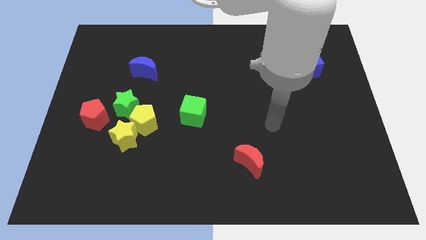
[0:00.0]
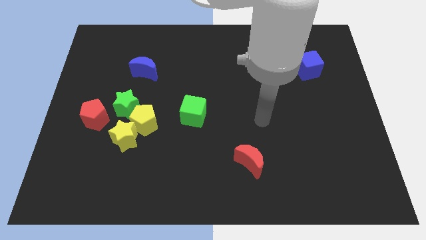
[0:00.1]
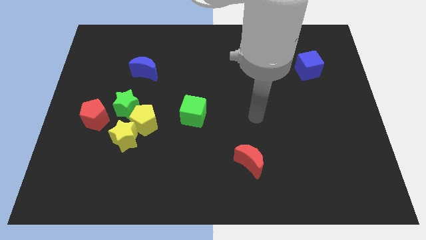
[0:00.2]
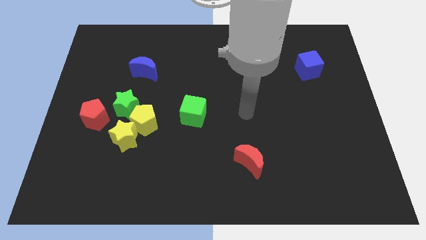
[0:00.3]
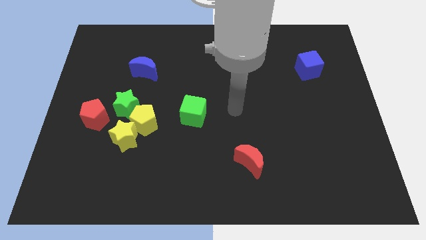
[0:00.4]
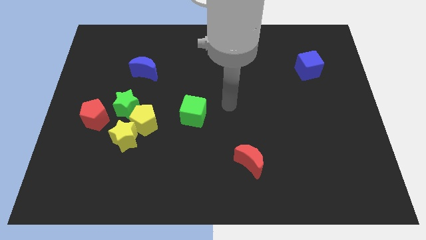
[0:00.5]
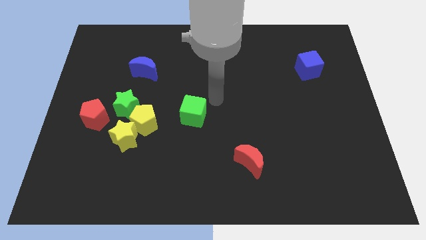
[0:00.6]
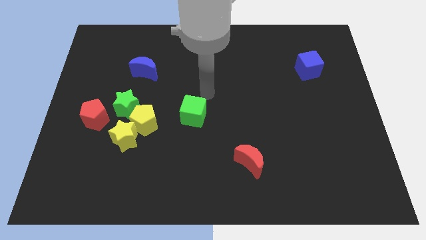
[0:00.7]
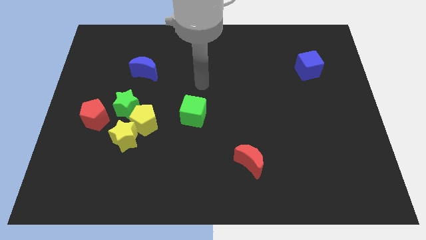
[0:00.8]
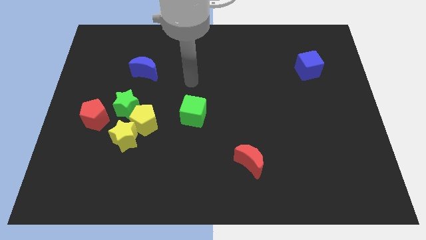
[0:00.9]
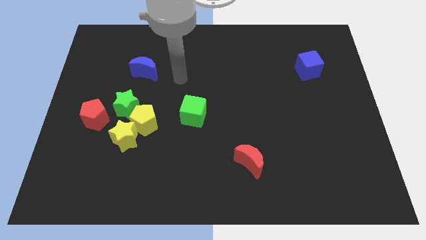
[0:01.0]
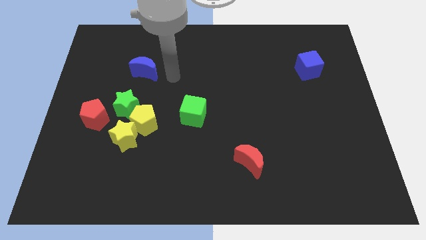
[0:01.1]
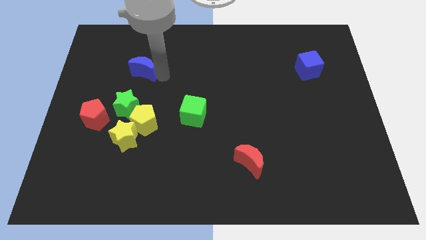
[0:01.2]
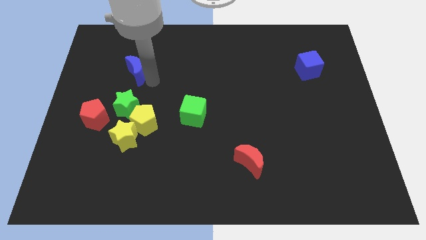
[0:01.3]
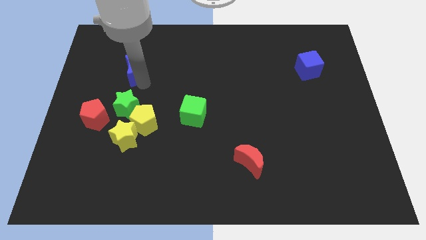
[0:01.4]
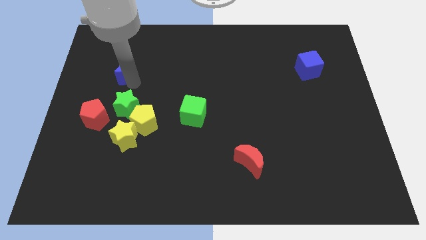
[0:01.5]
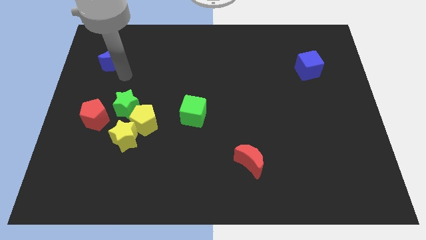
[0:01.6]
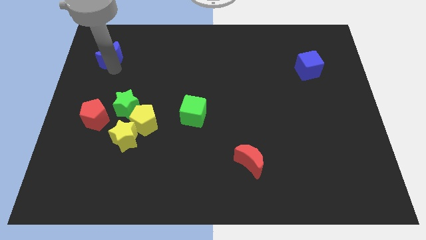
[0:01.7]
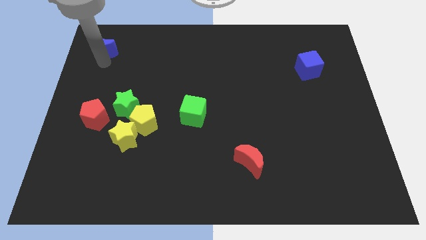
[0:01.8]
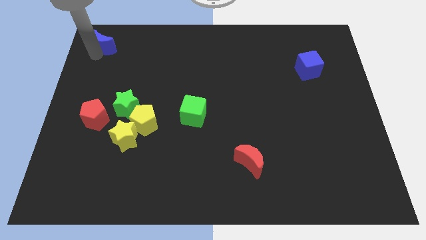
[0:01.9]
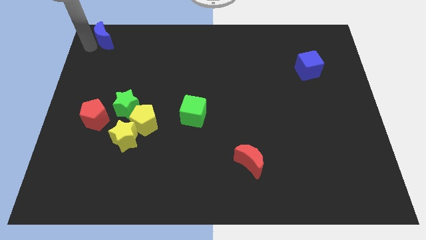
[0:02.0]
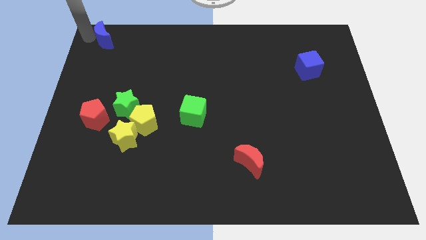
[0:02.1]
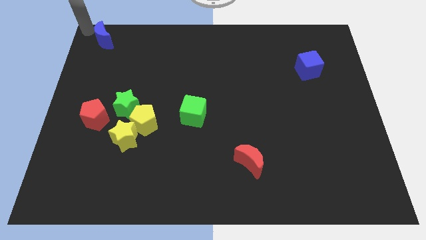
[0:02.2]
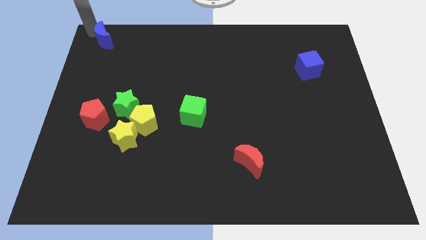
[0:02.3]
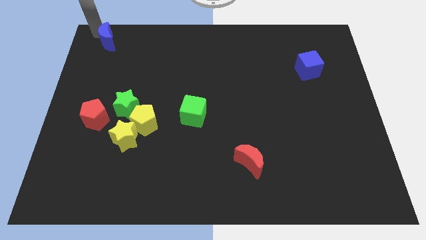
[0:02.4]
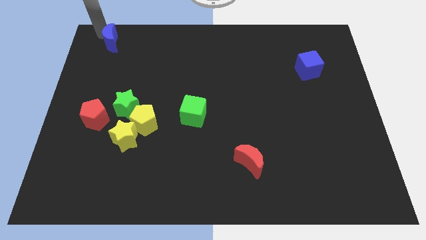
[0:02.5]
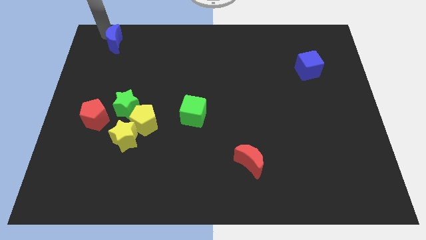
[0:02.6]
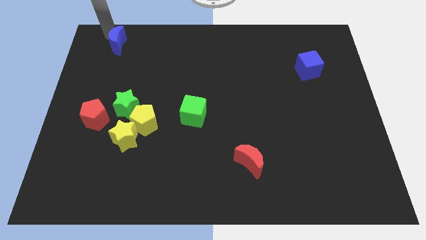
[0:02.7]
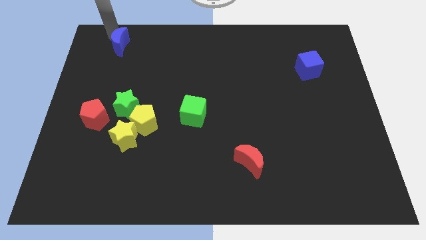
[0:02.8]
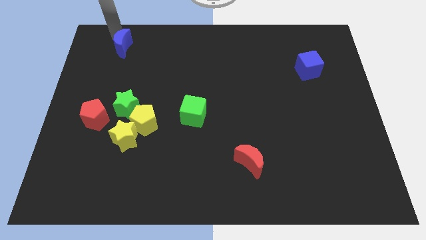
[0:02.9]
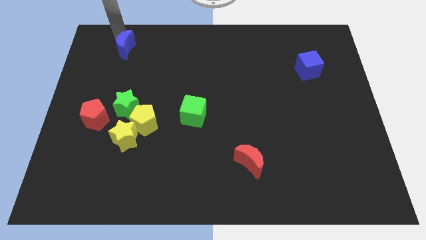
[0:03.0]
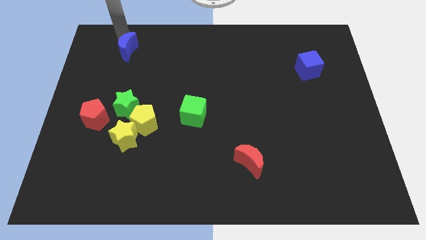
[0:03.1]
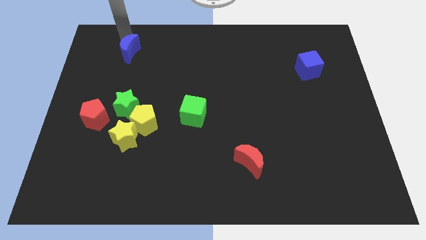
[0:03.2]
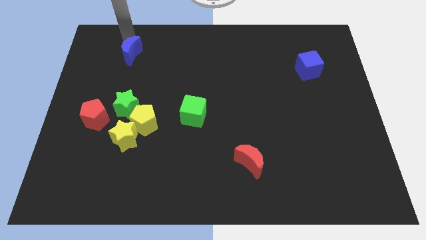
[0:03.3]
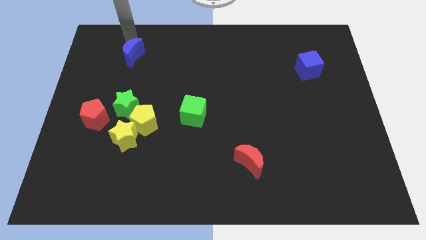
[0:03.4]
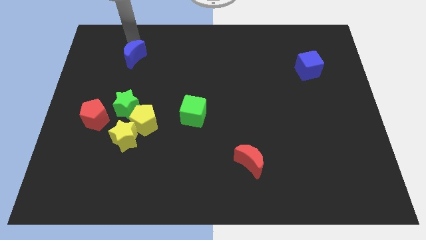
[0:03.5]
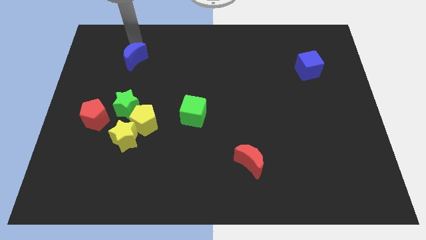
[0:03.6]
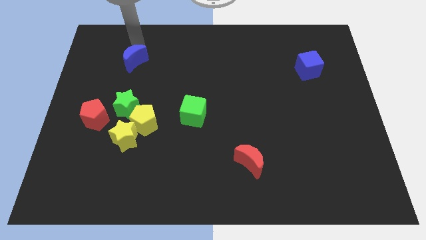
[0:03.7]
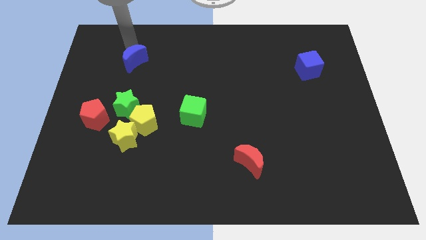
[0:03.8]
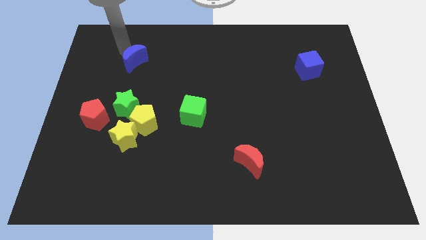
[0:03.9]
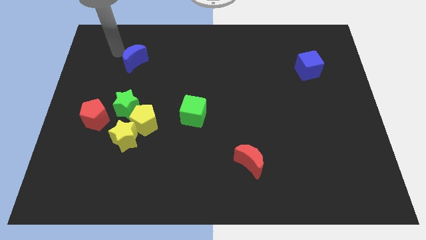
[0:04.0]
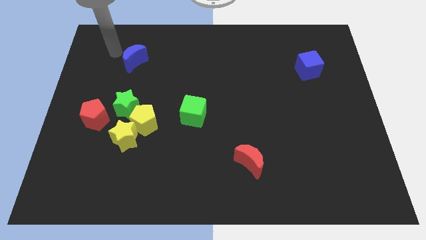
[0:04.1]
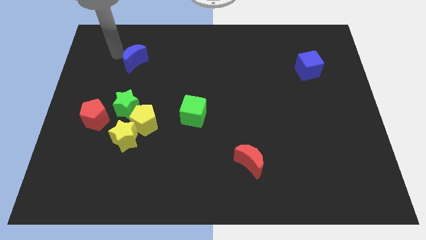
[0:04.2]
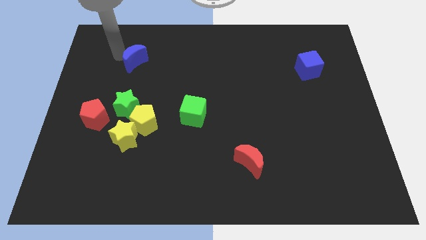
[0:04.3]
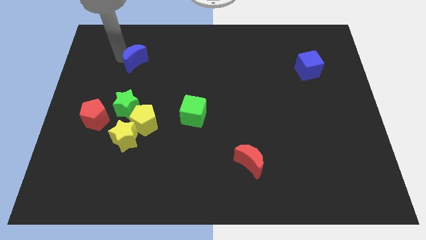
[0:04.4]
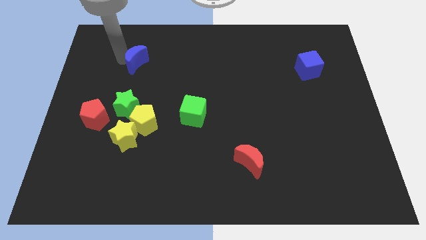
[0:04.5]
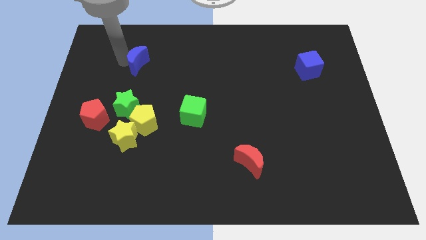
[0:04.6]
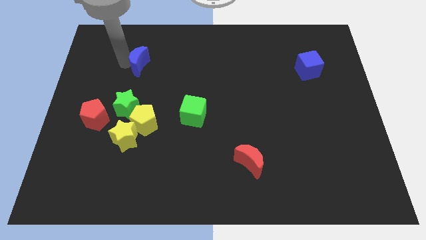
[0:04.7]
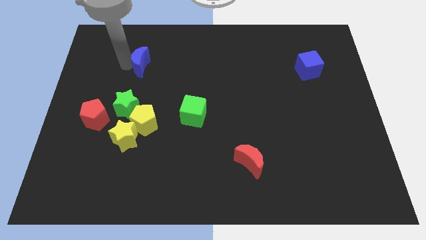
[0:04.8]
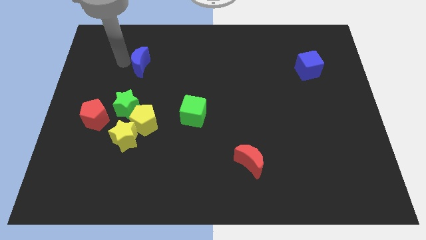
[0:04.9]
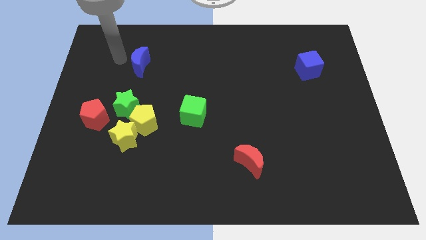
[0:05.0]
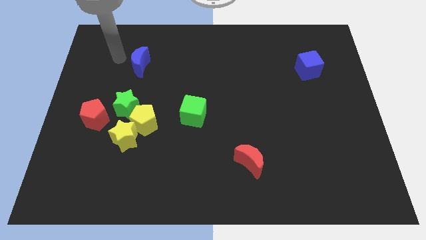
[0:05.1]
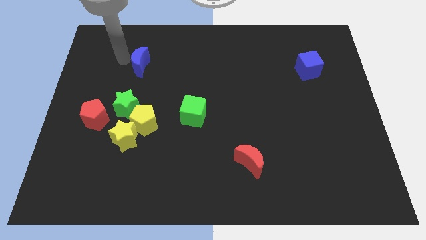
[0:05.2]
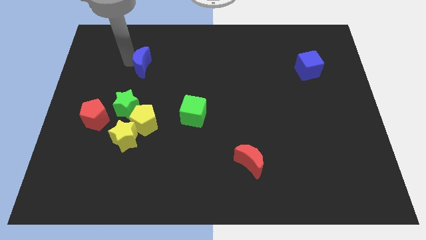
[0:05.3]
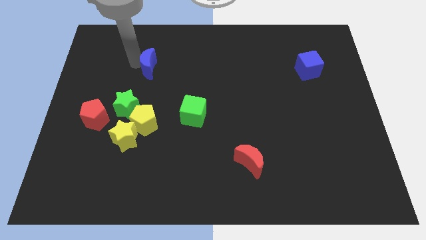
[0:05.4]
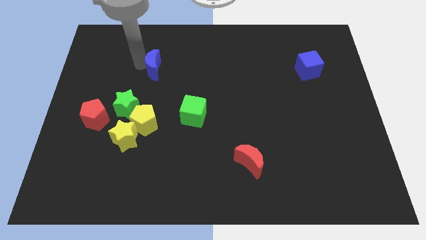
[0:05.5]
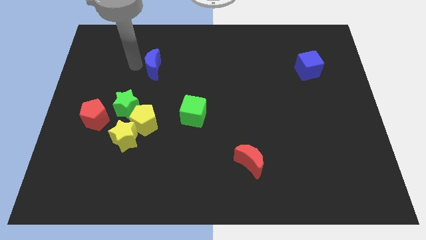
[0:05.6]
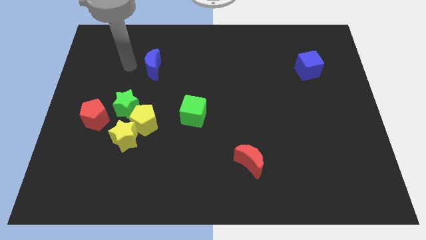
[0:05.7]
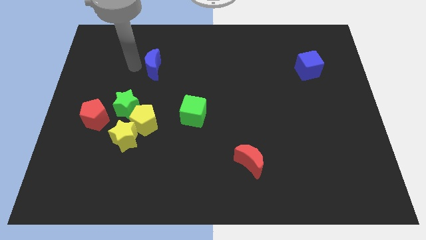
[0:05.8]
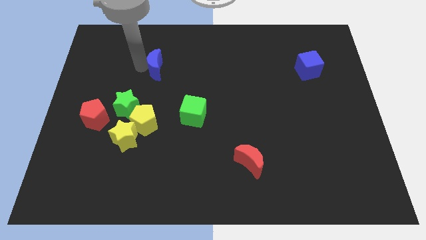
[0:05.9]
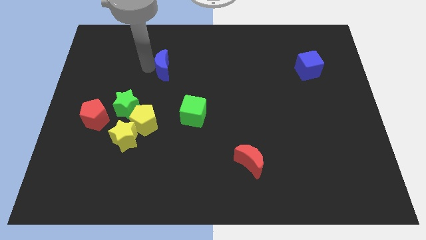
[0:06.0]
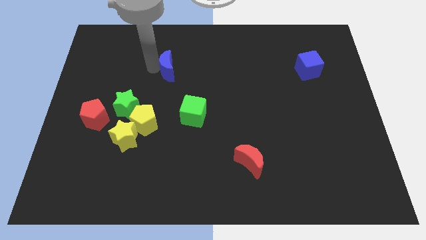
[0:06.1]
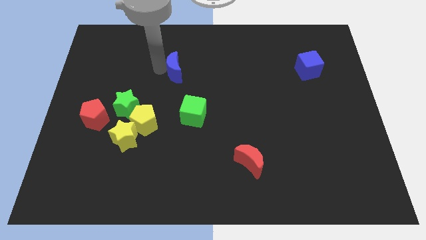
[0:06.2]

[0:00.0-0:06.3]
push the blue moon to the right slightly

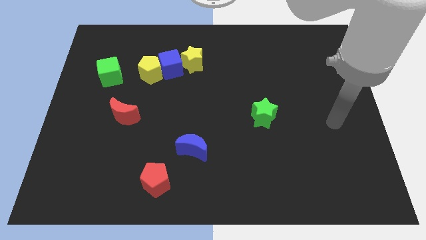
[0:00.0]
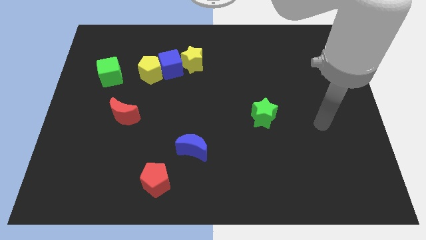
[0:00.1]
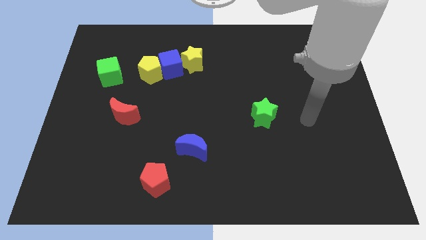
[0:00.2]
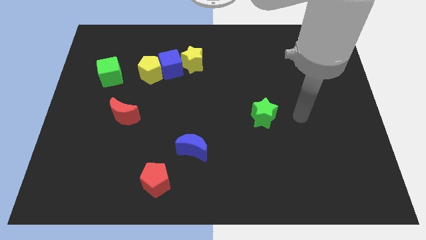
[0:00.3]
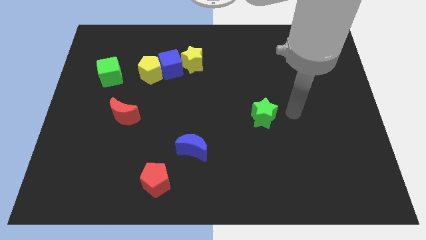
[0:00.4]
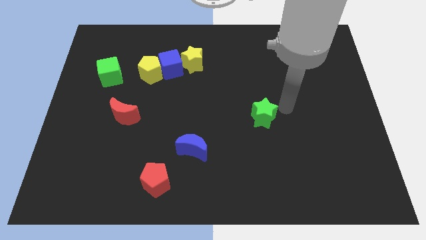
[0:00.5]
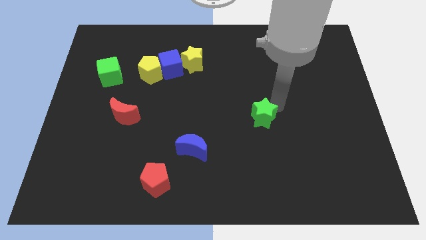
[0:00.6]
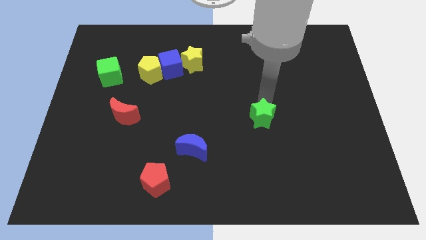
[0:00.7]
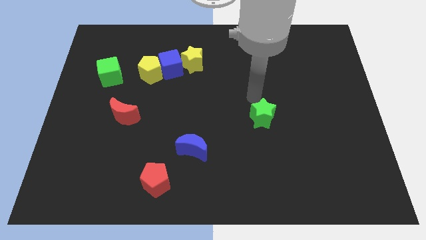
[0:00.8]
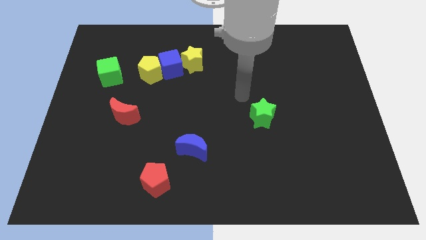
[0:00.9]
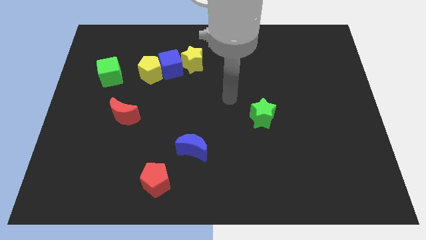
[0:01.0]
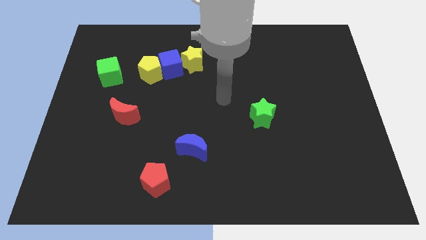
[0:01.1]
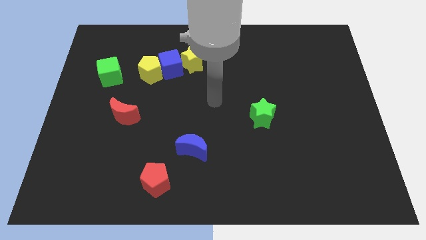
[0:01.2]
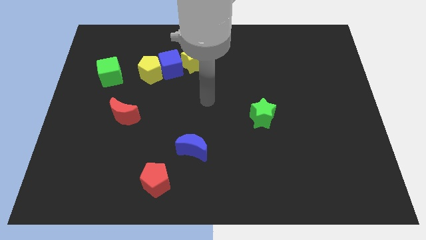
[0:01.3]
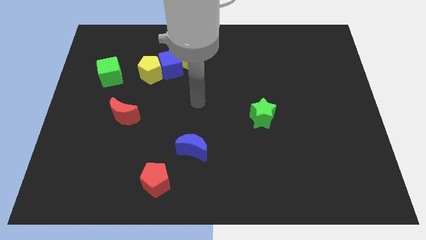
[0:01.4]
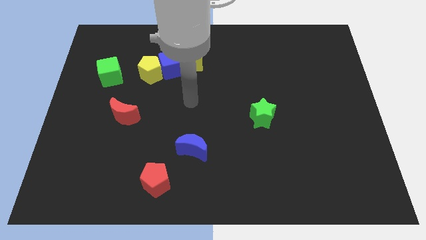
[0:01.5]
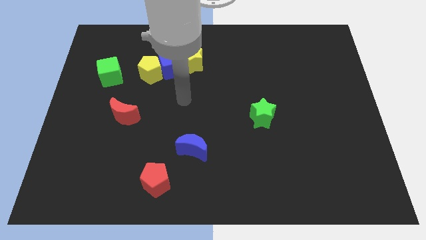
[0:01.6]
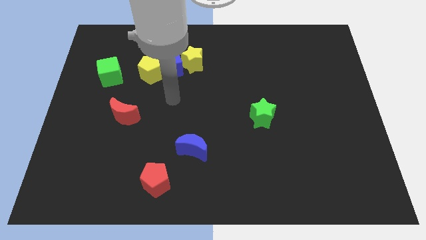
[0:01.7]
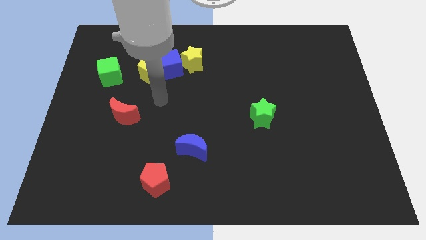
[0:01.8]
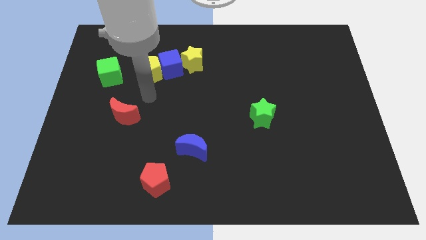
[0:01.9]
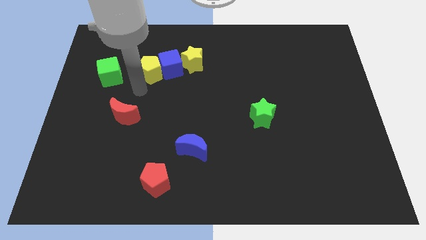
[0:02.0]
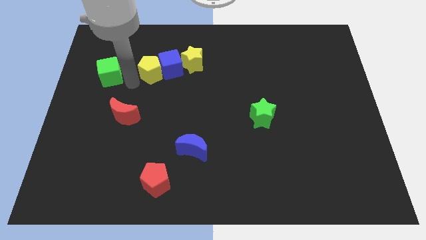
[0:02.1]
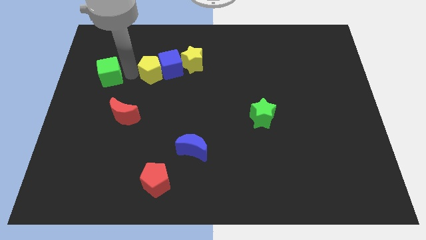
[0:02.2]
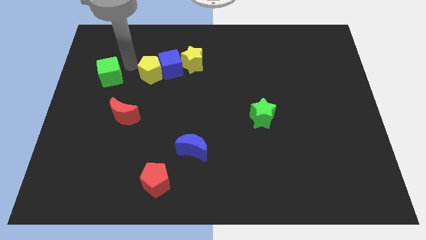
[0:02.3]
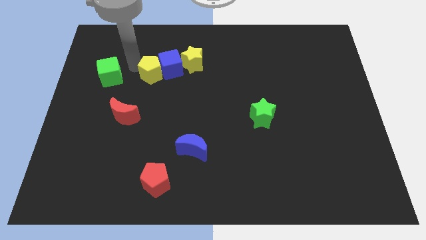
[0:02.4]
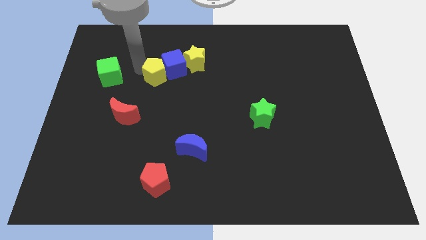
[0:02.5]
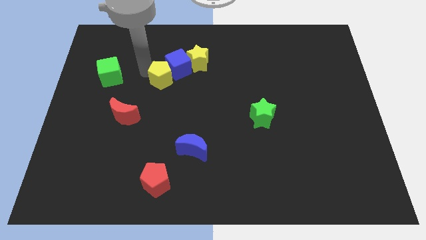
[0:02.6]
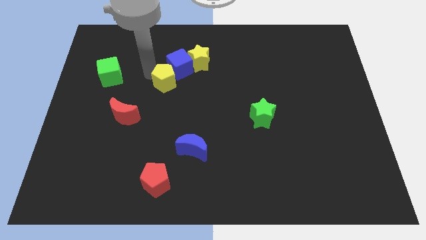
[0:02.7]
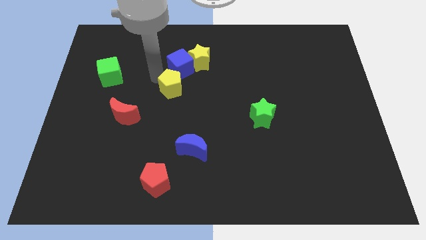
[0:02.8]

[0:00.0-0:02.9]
slightly move the yellow pentagon down and right
